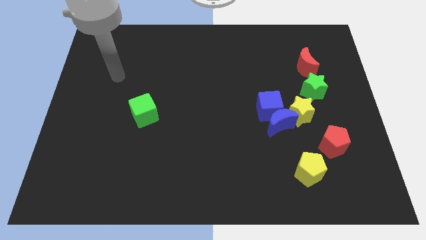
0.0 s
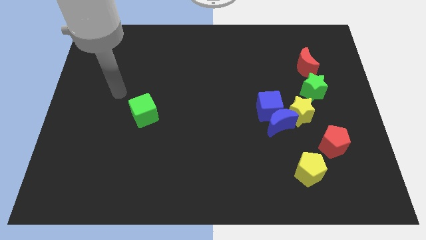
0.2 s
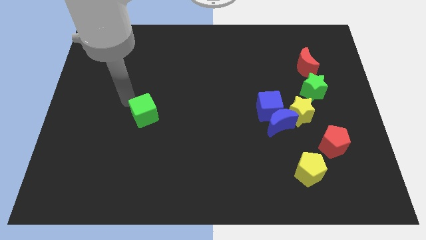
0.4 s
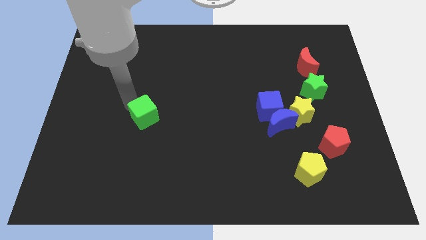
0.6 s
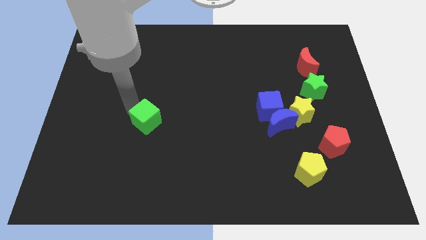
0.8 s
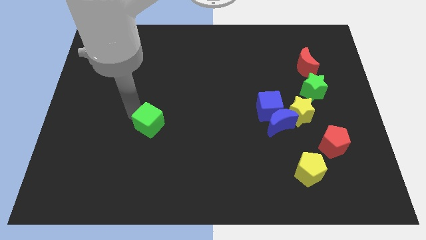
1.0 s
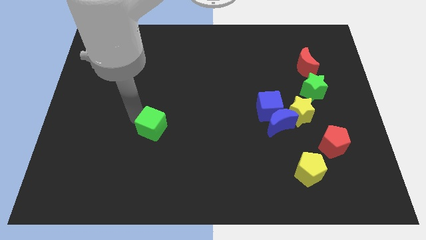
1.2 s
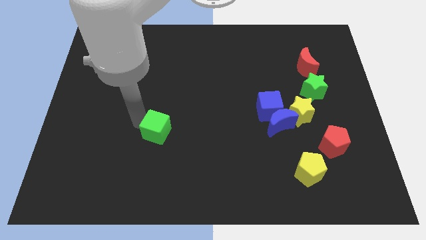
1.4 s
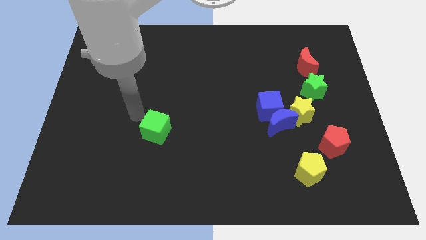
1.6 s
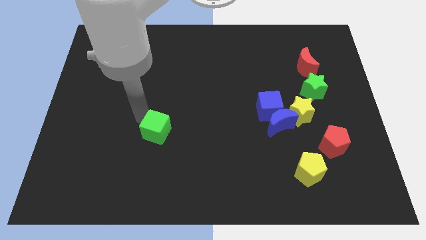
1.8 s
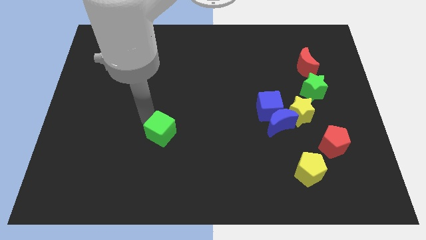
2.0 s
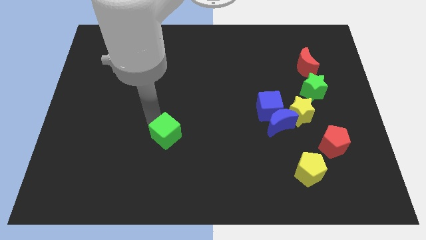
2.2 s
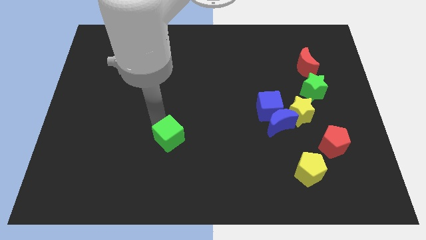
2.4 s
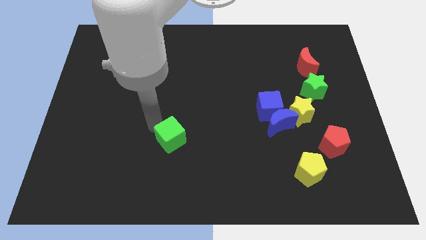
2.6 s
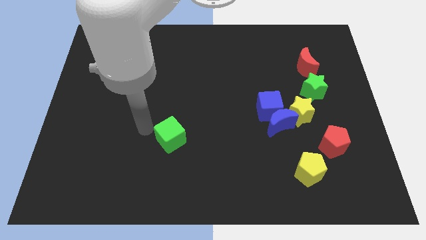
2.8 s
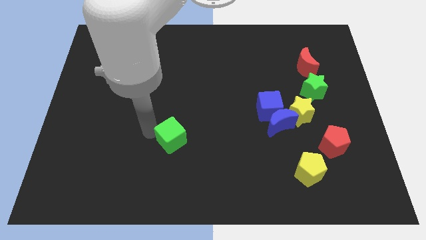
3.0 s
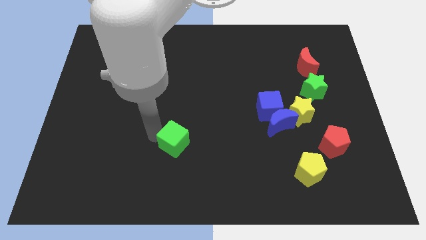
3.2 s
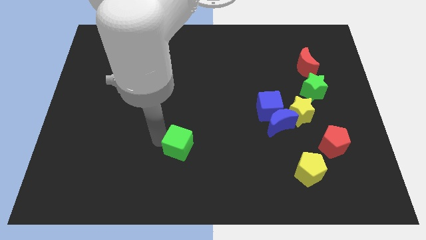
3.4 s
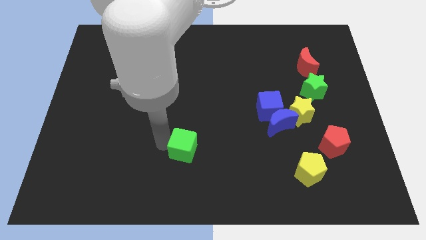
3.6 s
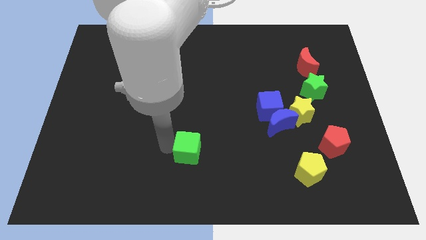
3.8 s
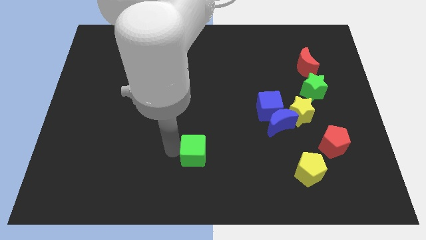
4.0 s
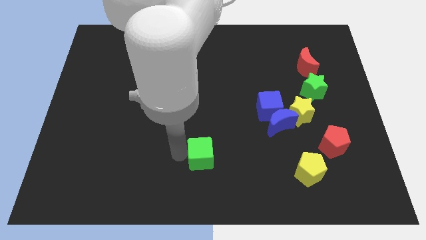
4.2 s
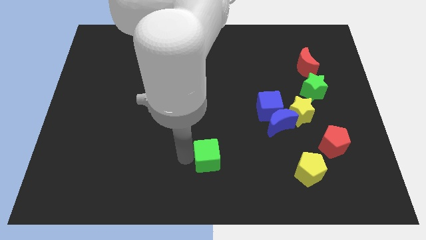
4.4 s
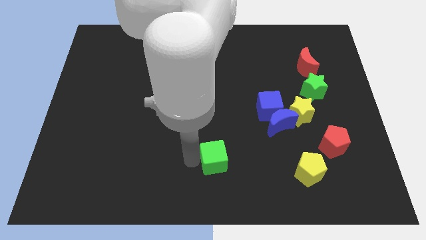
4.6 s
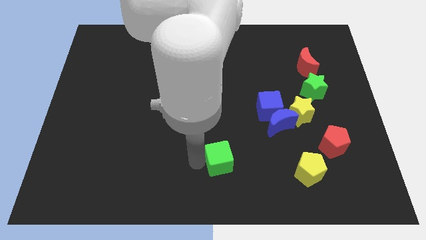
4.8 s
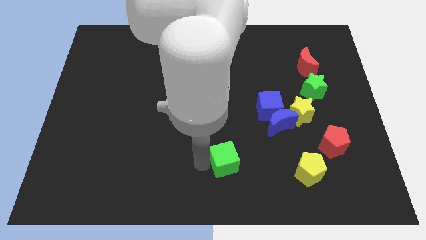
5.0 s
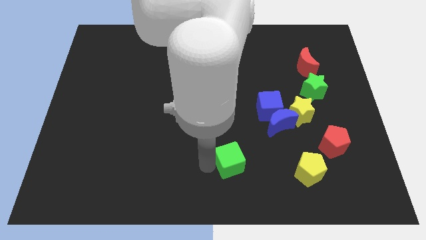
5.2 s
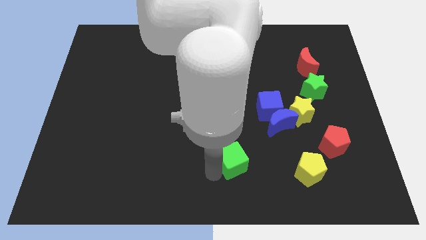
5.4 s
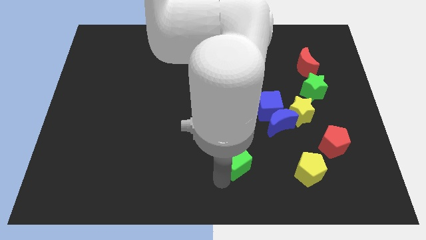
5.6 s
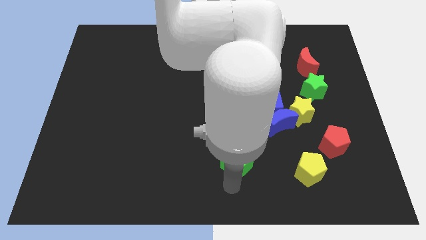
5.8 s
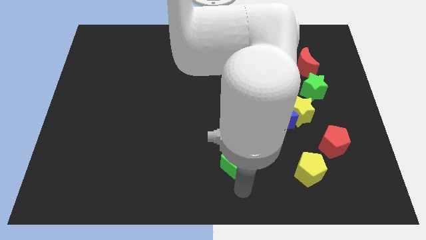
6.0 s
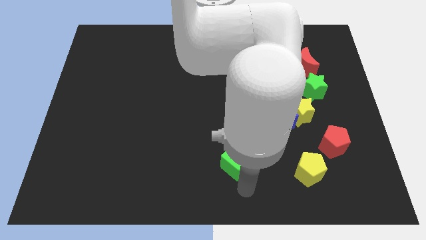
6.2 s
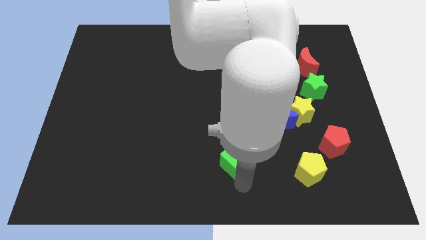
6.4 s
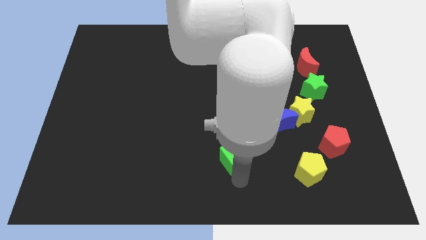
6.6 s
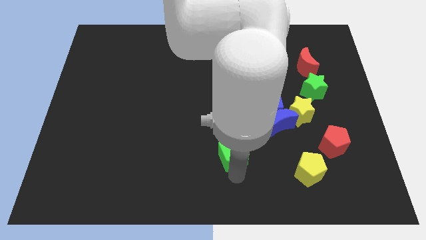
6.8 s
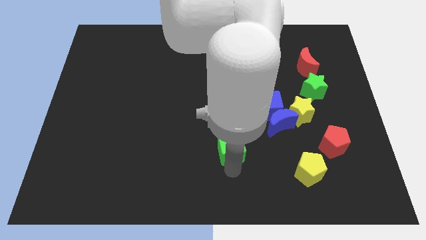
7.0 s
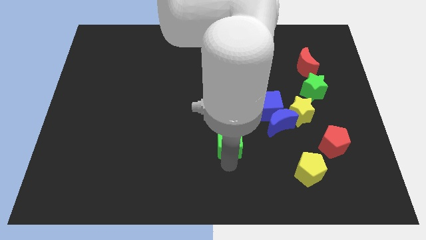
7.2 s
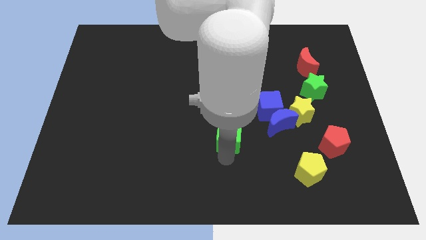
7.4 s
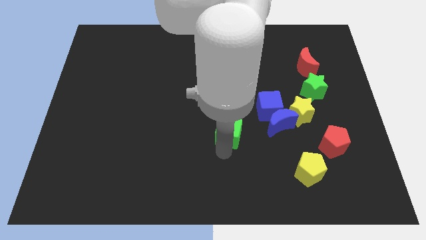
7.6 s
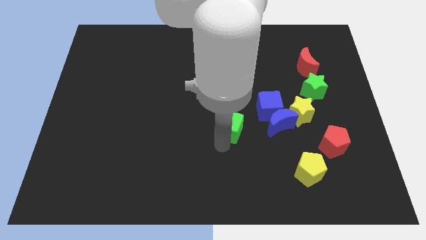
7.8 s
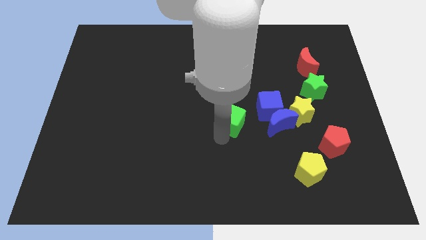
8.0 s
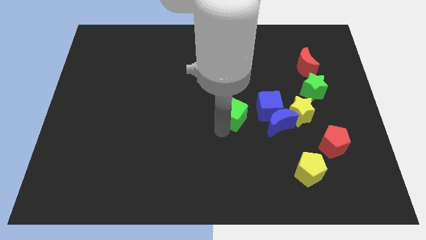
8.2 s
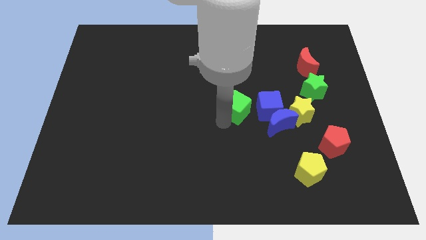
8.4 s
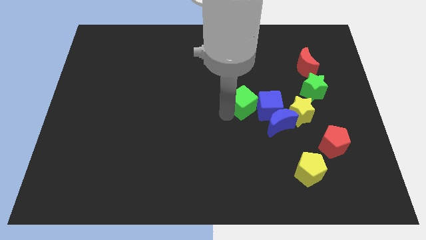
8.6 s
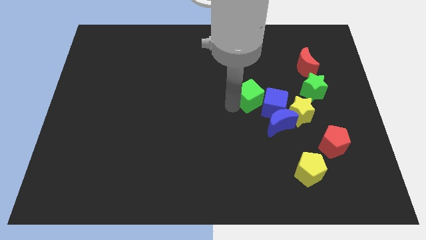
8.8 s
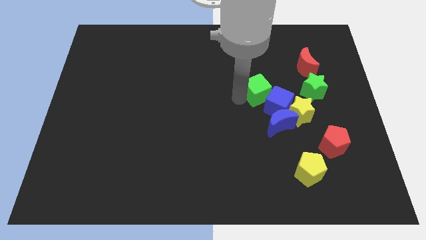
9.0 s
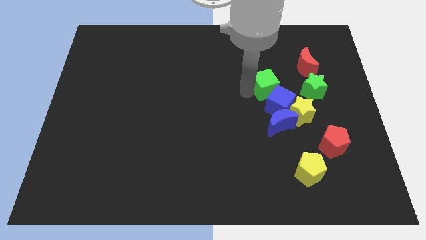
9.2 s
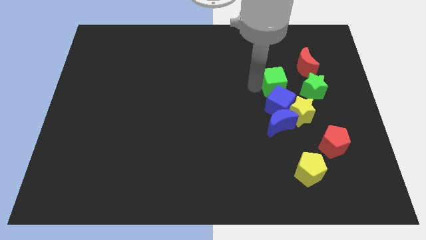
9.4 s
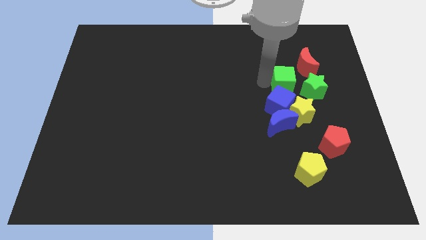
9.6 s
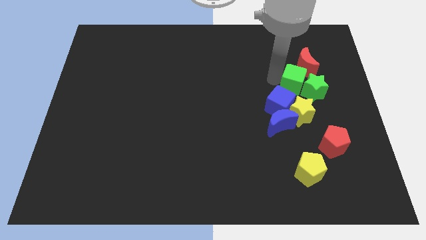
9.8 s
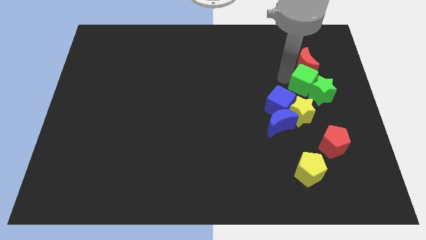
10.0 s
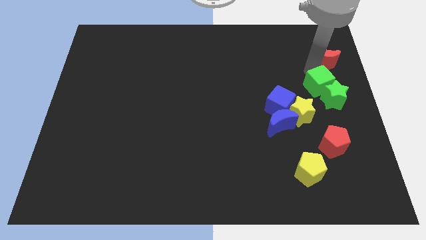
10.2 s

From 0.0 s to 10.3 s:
slide the green cube to the right side

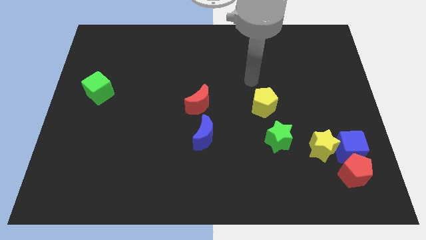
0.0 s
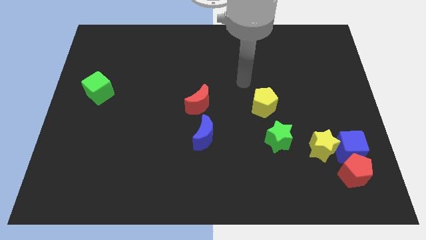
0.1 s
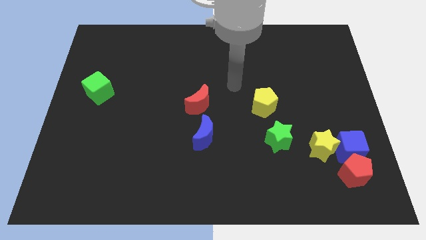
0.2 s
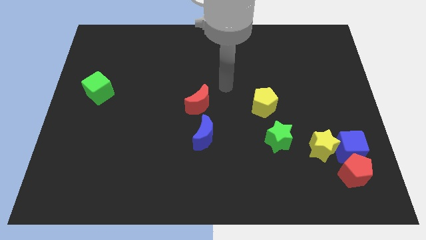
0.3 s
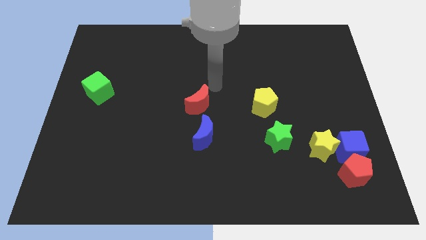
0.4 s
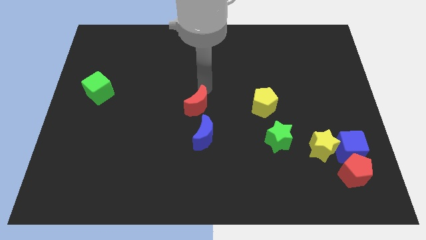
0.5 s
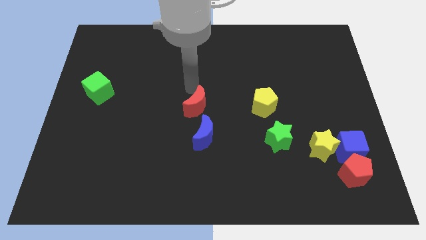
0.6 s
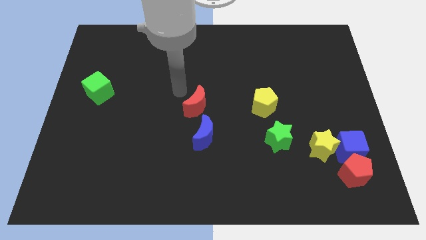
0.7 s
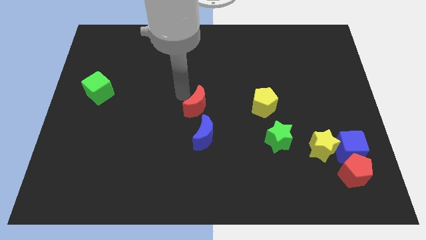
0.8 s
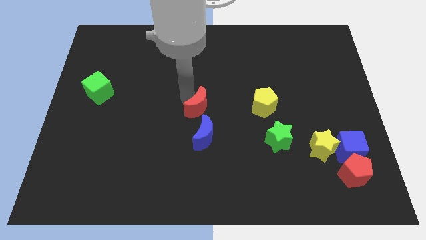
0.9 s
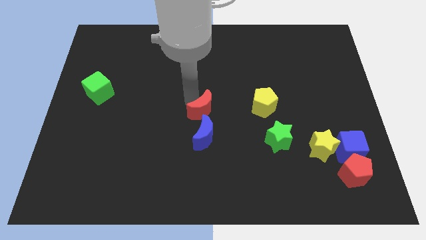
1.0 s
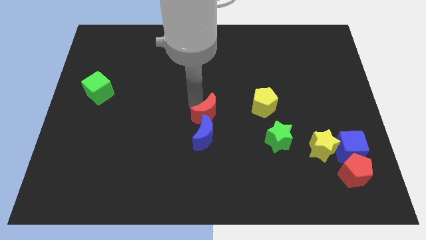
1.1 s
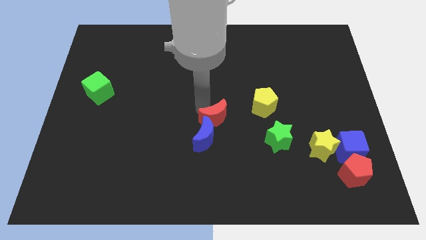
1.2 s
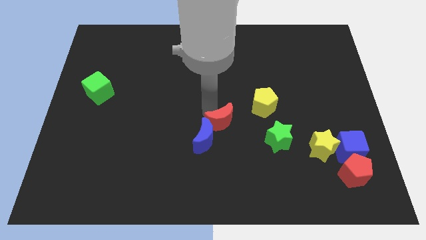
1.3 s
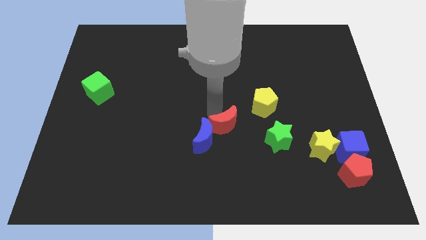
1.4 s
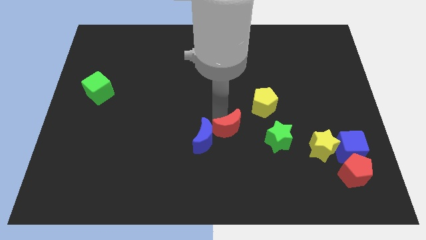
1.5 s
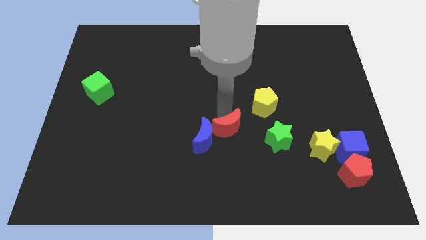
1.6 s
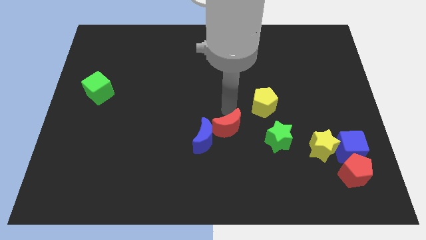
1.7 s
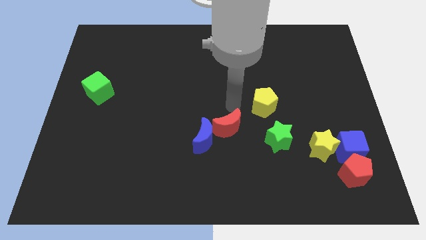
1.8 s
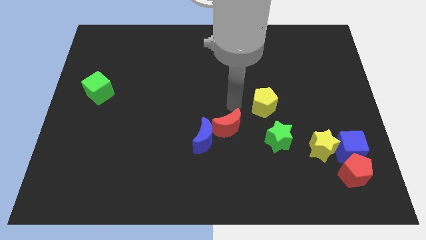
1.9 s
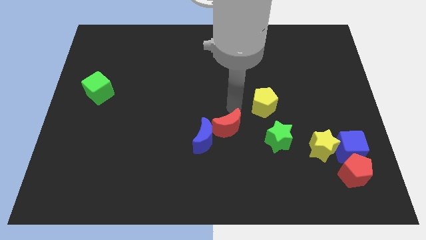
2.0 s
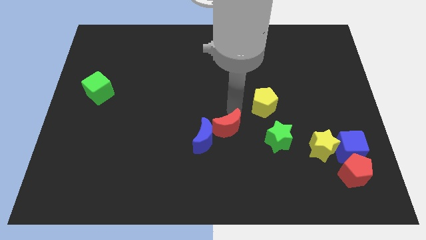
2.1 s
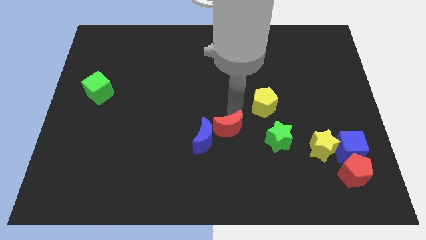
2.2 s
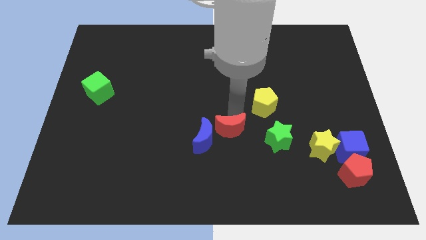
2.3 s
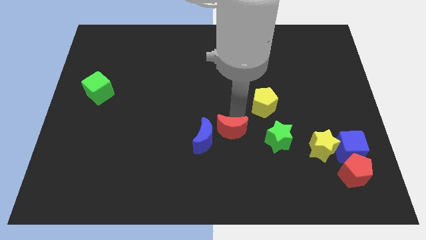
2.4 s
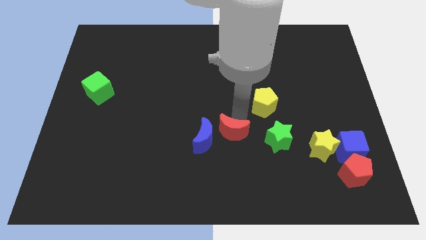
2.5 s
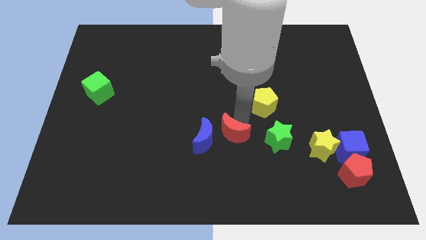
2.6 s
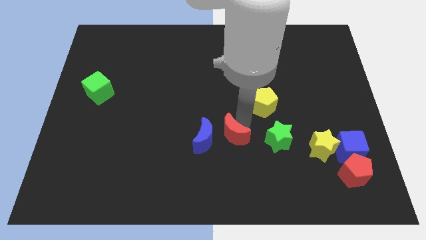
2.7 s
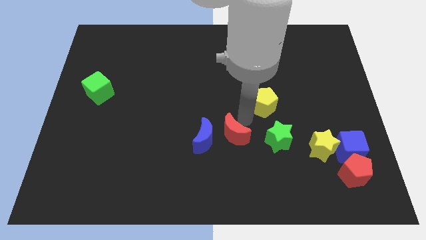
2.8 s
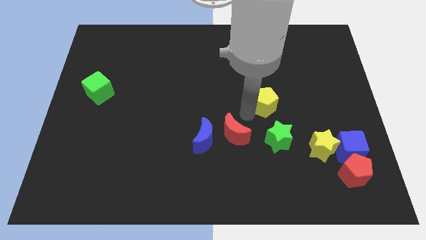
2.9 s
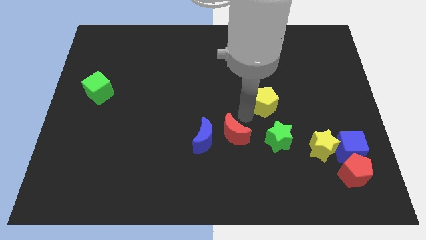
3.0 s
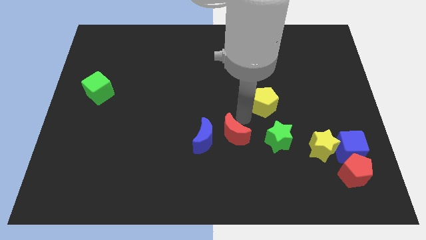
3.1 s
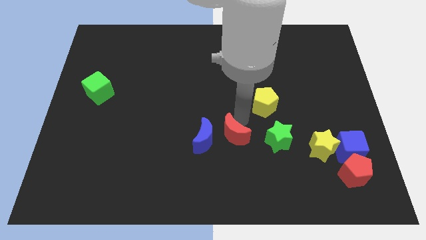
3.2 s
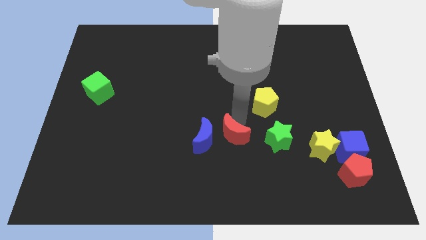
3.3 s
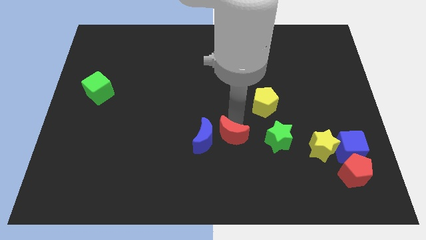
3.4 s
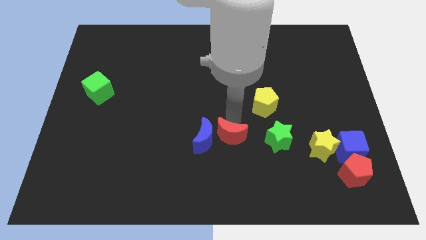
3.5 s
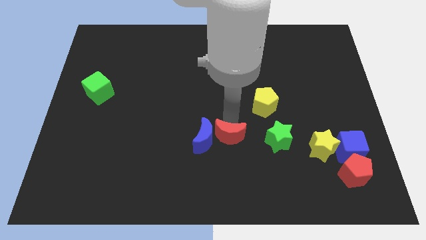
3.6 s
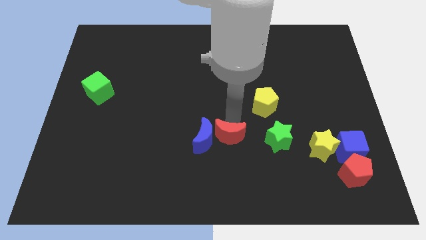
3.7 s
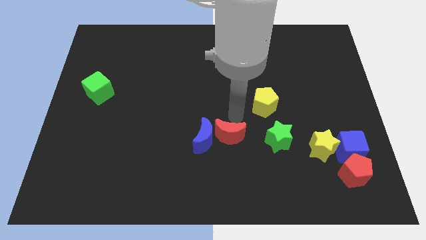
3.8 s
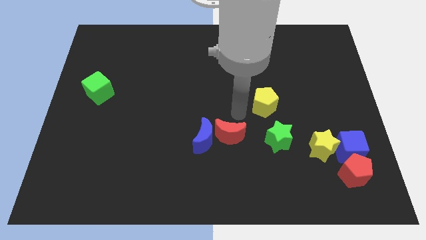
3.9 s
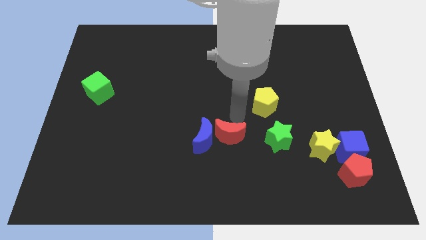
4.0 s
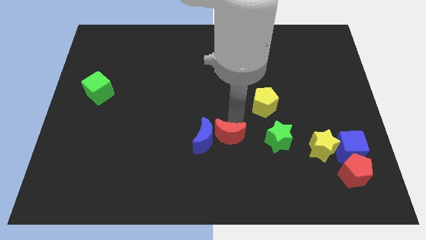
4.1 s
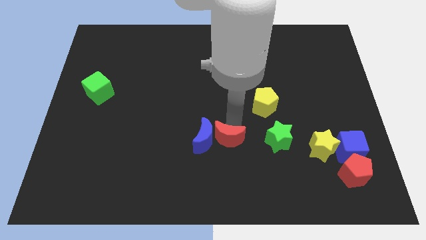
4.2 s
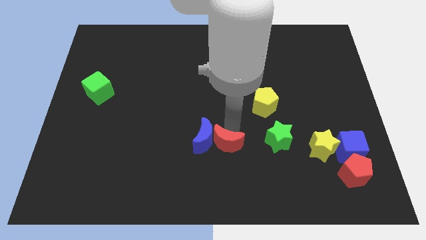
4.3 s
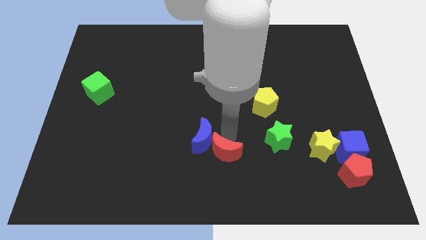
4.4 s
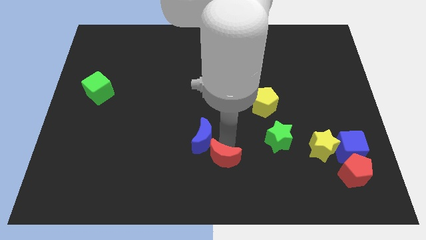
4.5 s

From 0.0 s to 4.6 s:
push the red moon to the bottom side
